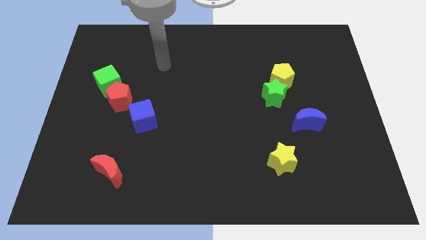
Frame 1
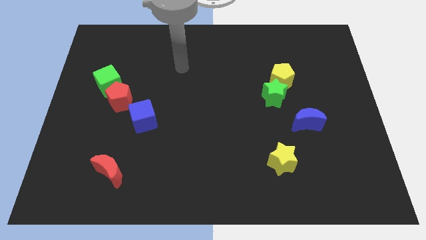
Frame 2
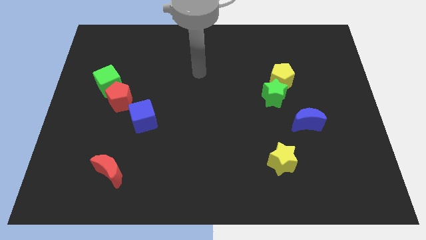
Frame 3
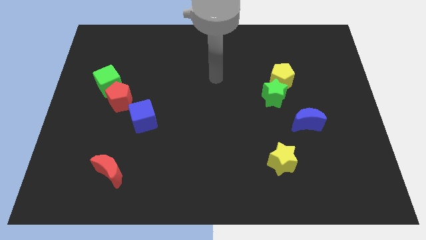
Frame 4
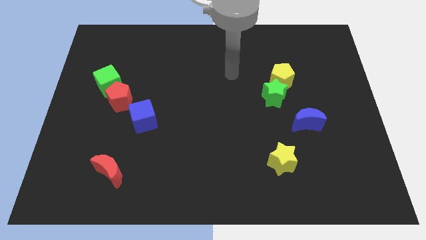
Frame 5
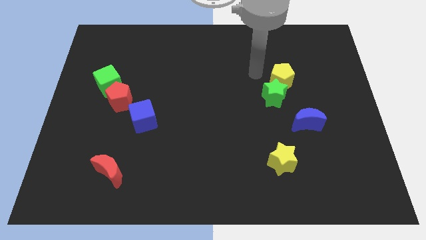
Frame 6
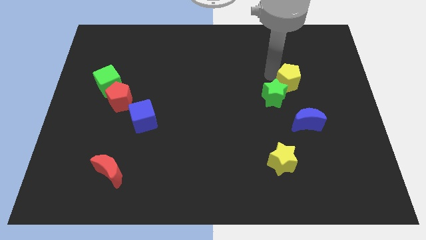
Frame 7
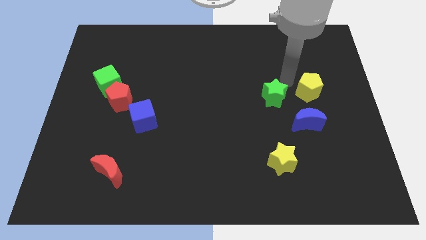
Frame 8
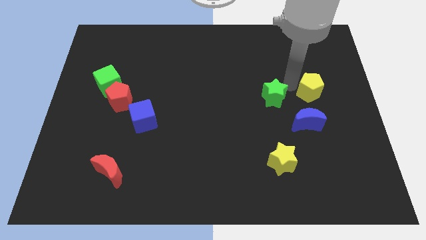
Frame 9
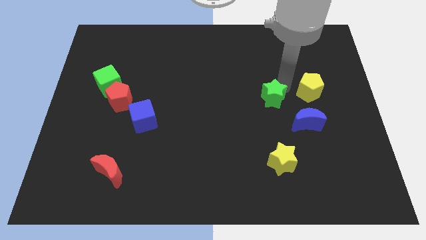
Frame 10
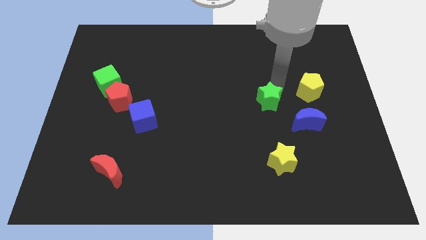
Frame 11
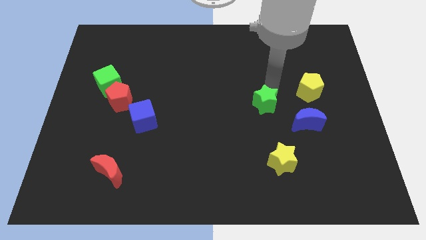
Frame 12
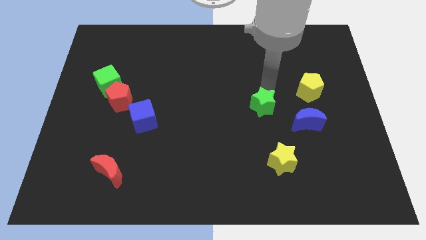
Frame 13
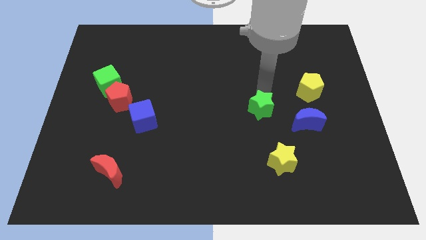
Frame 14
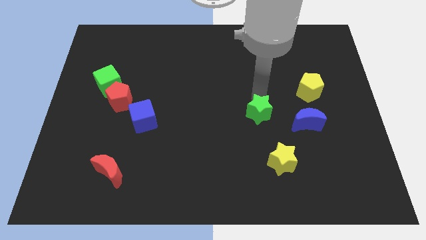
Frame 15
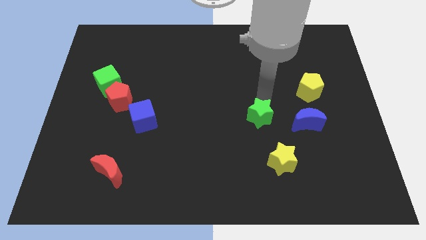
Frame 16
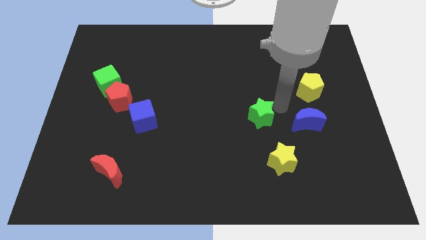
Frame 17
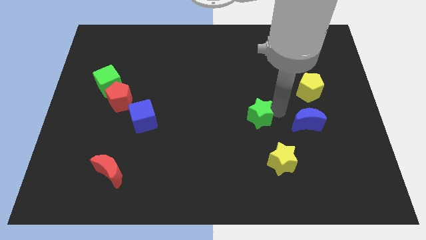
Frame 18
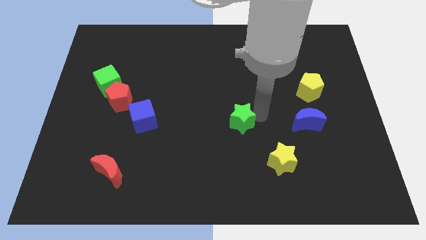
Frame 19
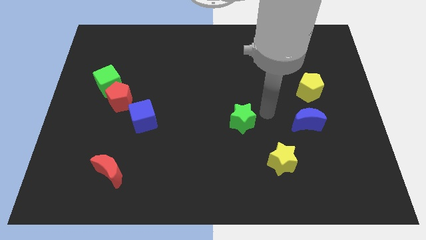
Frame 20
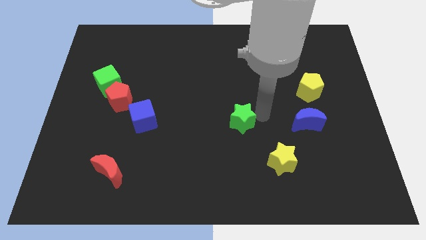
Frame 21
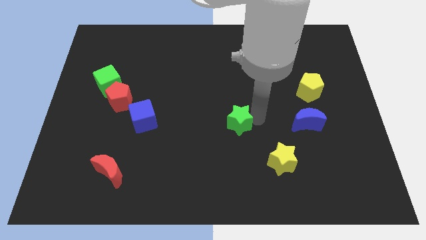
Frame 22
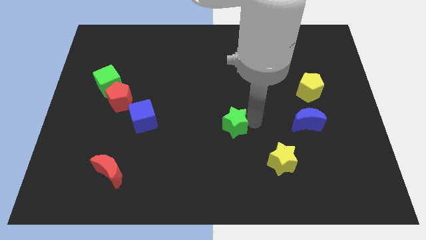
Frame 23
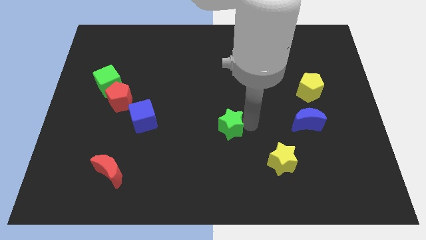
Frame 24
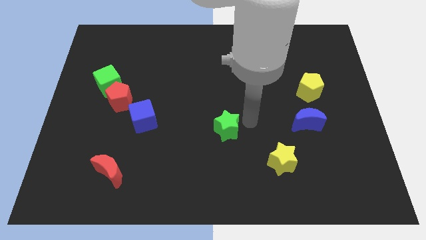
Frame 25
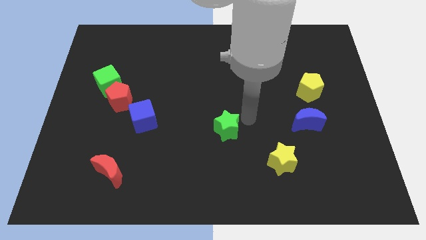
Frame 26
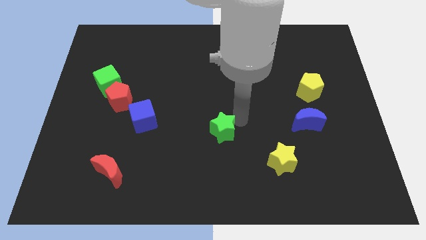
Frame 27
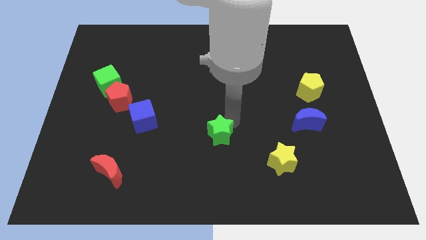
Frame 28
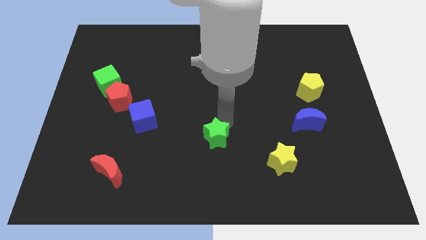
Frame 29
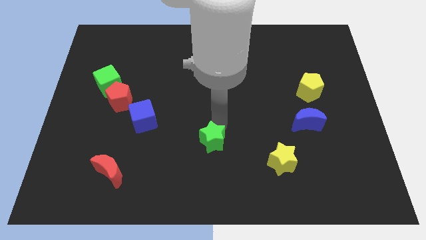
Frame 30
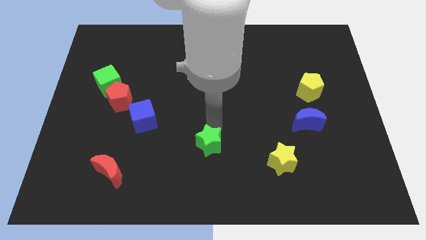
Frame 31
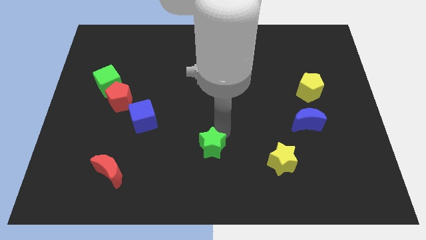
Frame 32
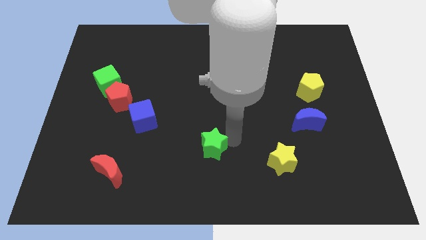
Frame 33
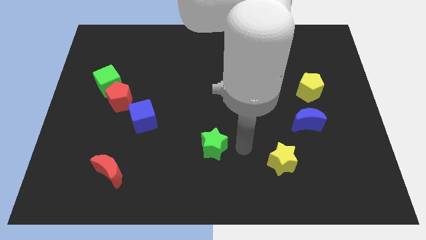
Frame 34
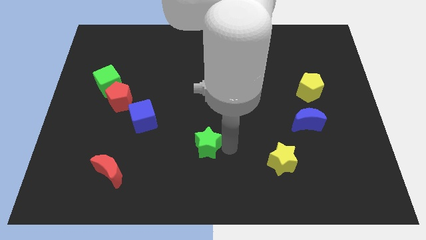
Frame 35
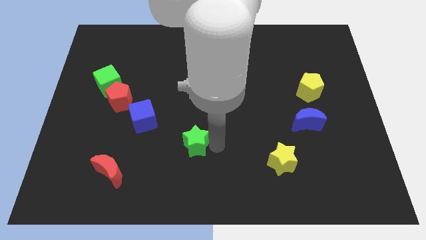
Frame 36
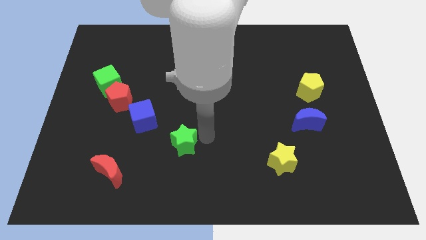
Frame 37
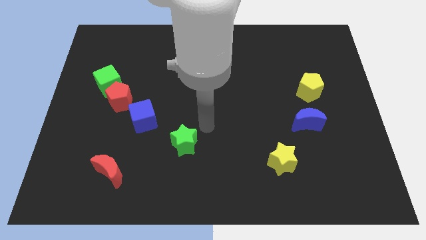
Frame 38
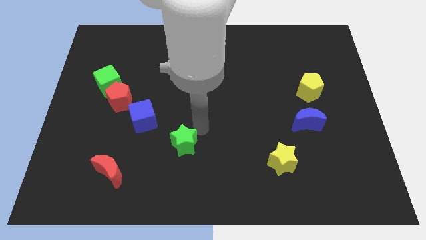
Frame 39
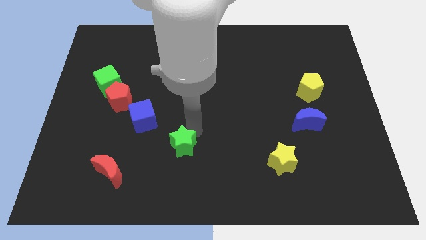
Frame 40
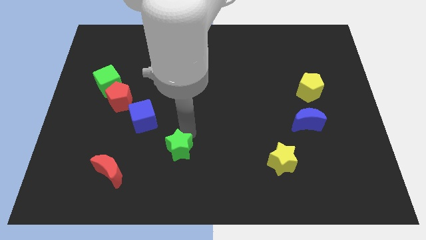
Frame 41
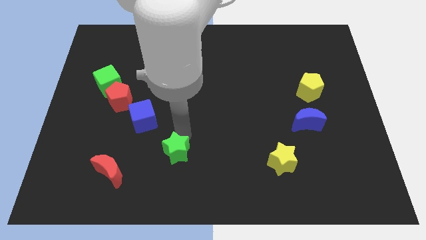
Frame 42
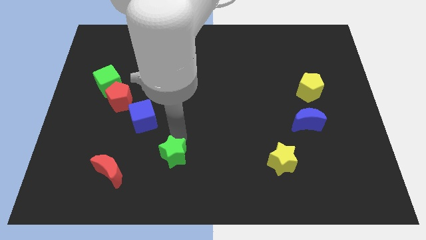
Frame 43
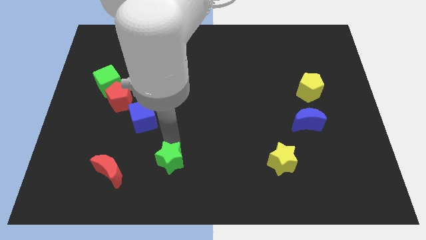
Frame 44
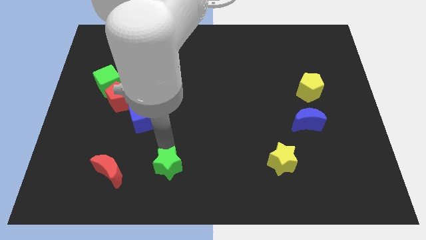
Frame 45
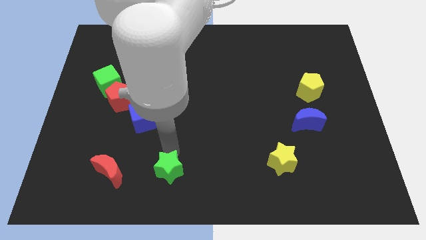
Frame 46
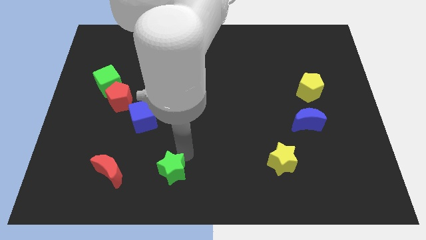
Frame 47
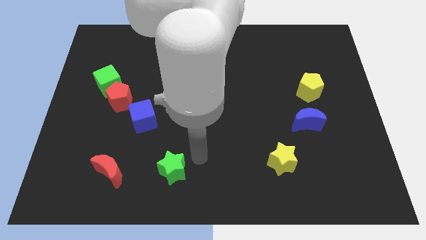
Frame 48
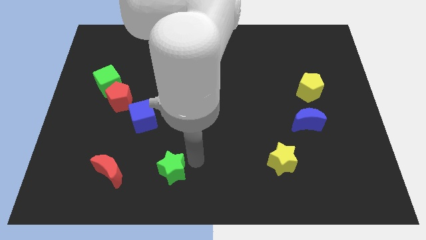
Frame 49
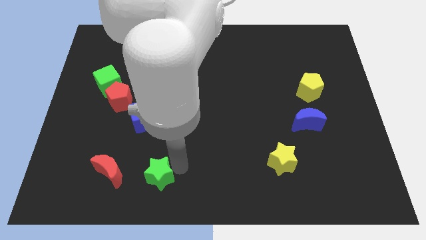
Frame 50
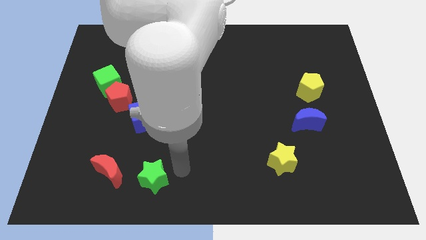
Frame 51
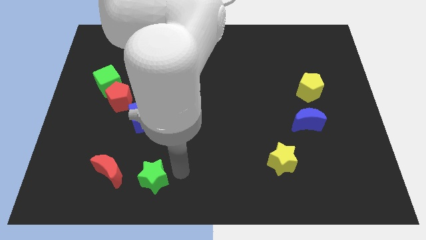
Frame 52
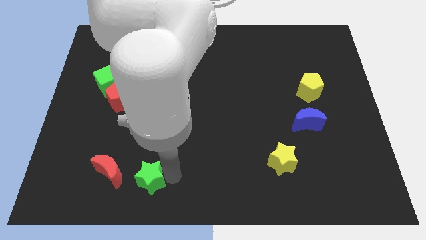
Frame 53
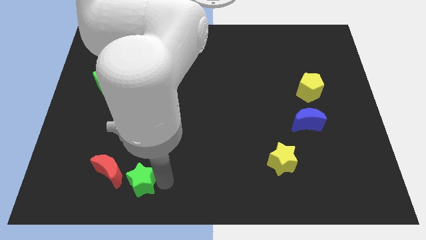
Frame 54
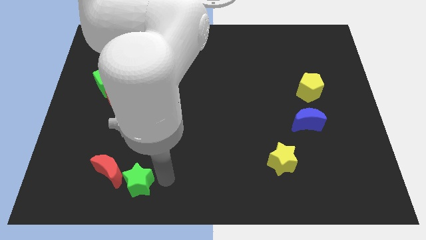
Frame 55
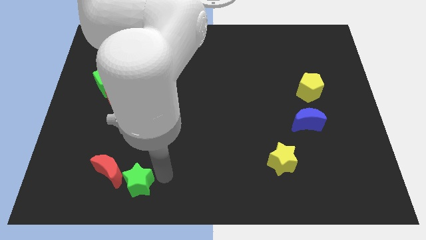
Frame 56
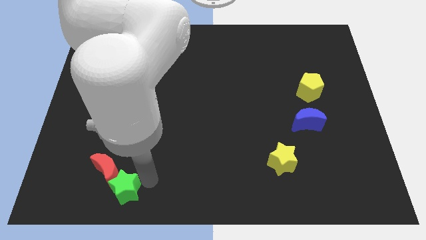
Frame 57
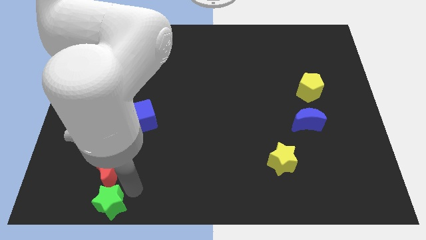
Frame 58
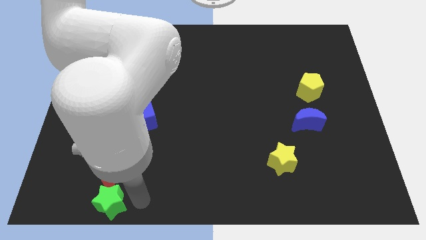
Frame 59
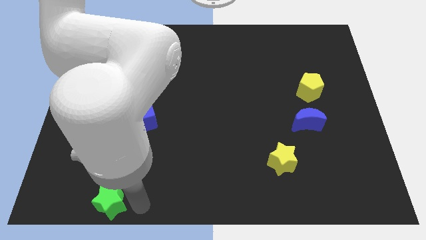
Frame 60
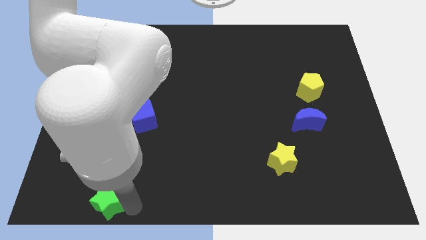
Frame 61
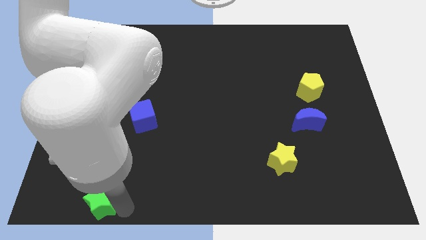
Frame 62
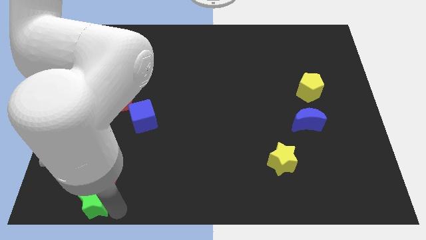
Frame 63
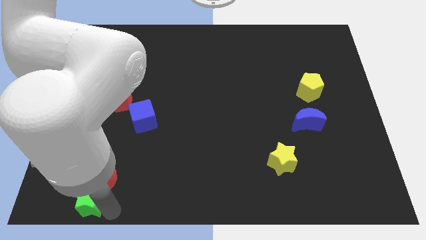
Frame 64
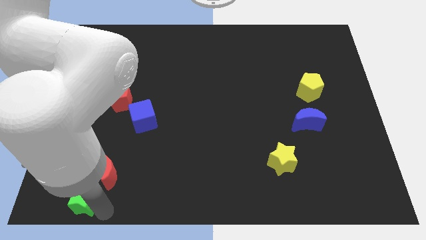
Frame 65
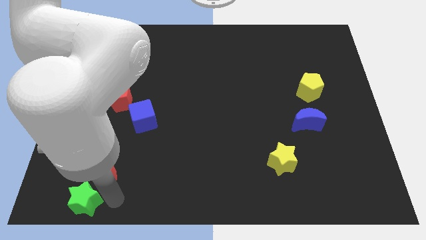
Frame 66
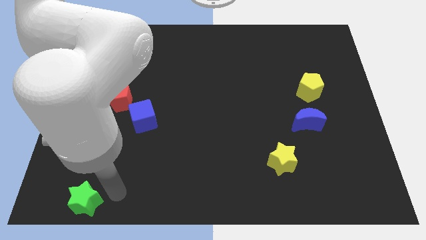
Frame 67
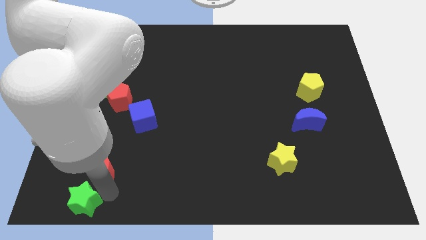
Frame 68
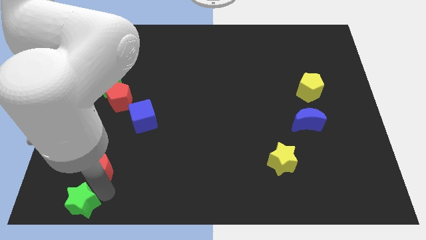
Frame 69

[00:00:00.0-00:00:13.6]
push the green star to the bottom left of the board
